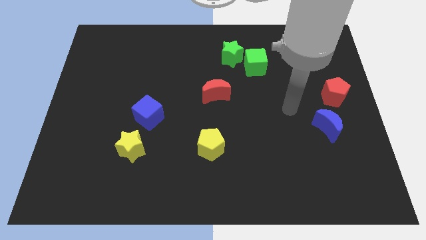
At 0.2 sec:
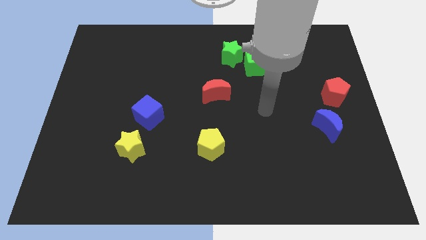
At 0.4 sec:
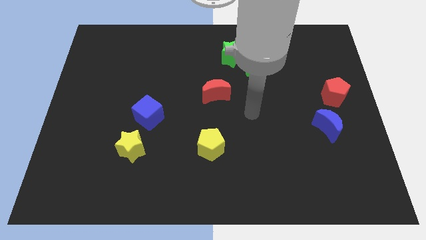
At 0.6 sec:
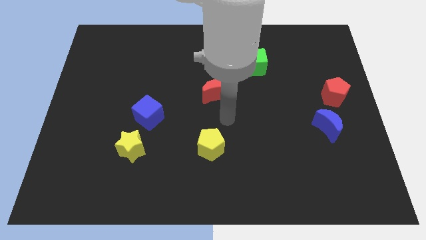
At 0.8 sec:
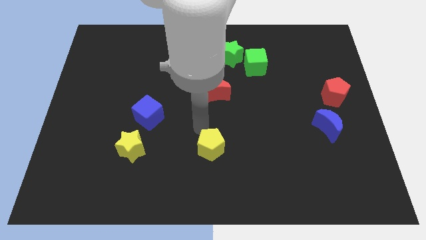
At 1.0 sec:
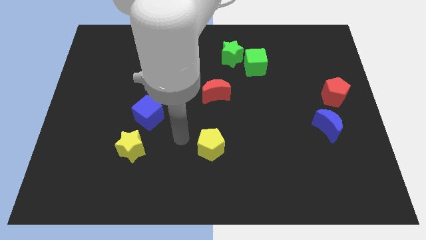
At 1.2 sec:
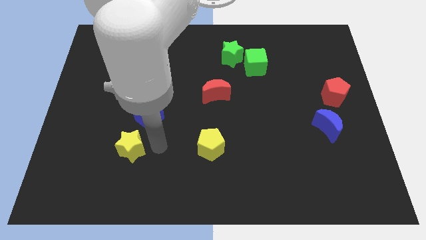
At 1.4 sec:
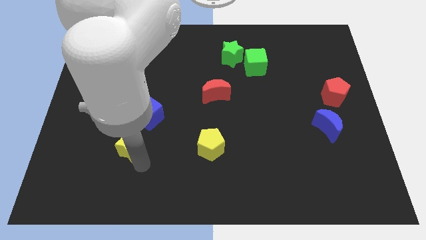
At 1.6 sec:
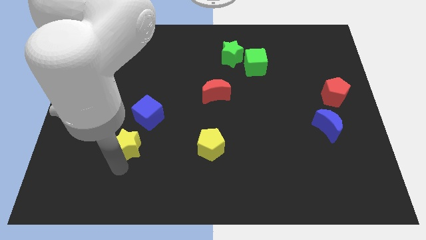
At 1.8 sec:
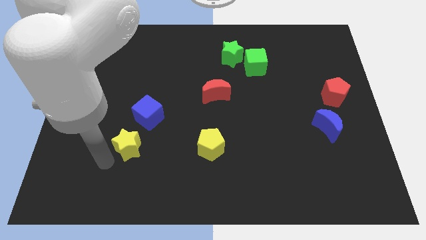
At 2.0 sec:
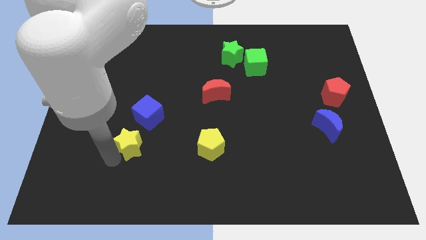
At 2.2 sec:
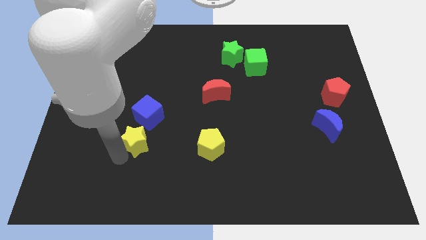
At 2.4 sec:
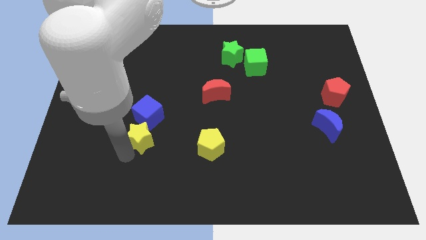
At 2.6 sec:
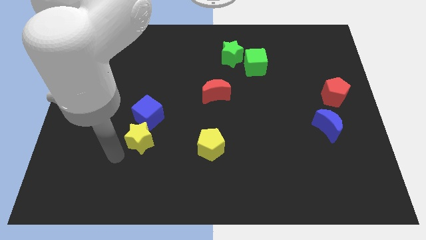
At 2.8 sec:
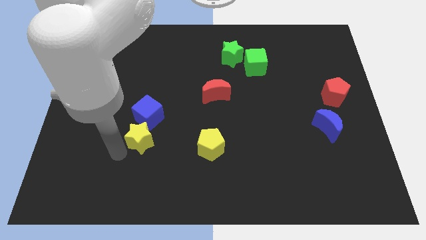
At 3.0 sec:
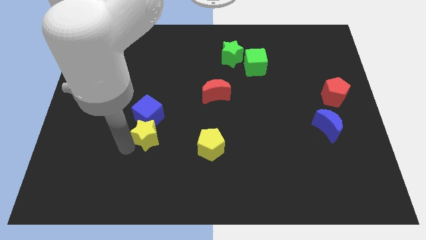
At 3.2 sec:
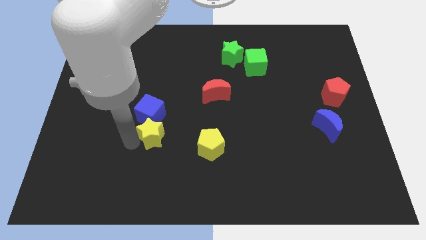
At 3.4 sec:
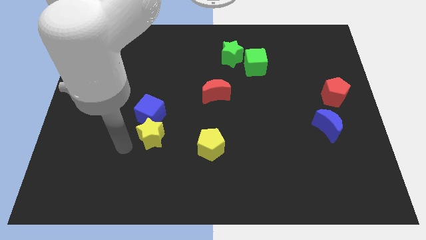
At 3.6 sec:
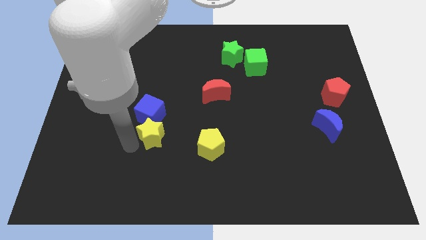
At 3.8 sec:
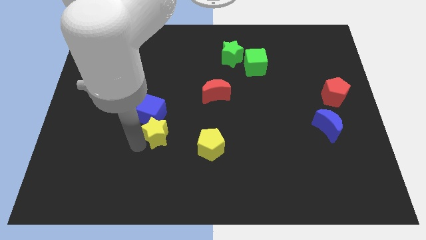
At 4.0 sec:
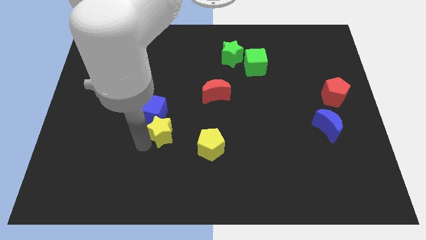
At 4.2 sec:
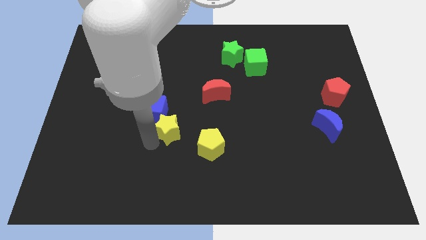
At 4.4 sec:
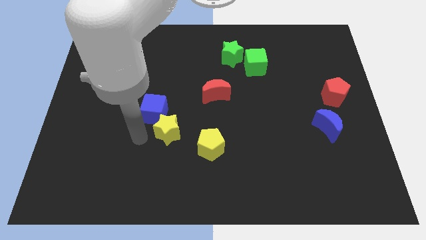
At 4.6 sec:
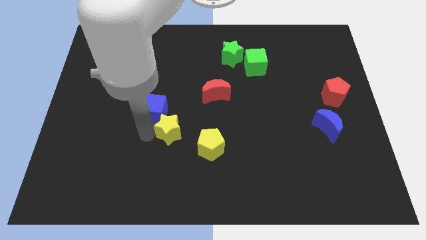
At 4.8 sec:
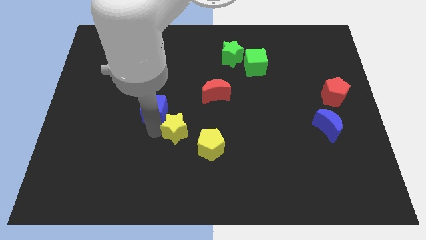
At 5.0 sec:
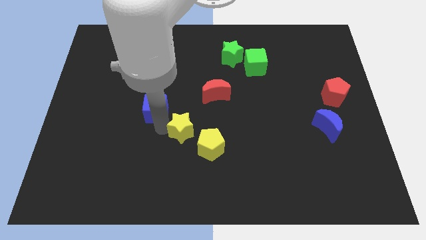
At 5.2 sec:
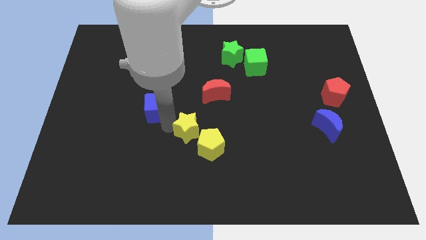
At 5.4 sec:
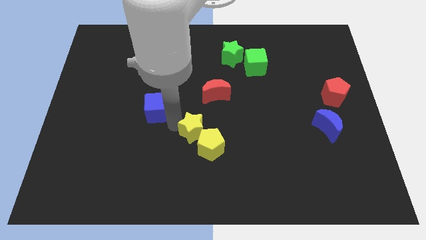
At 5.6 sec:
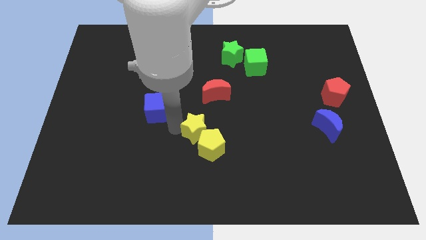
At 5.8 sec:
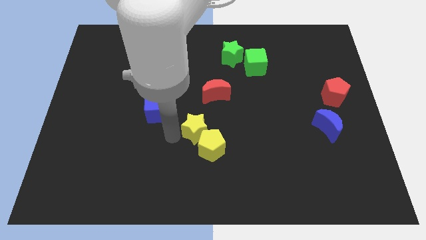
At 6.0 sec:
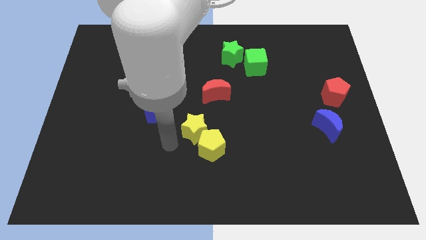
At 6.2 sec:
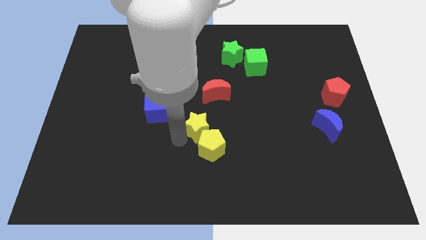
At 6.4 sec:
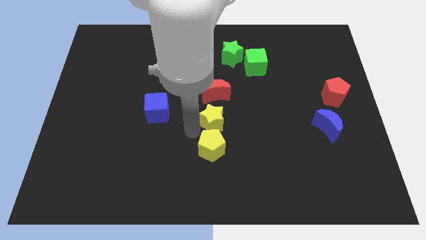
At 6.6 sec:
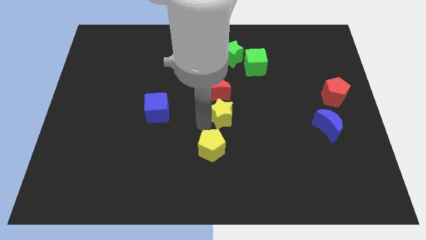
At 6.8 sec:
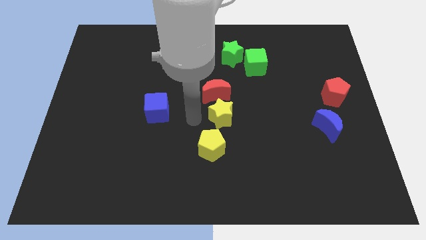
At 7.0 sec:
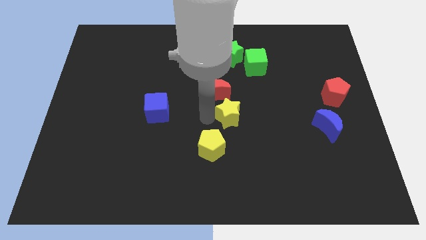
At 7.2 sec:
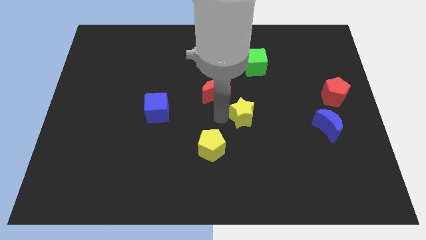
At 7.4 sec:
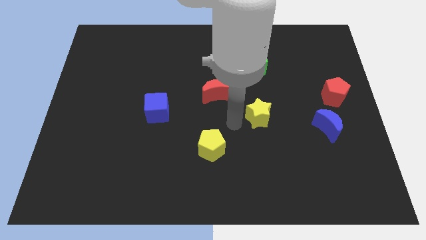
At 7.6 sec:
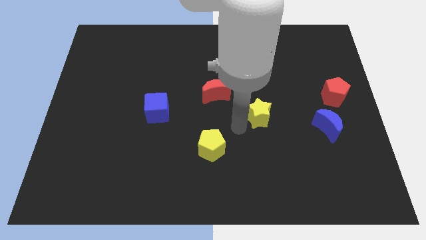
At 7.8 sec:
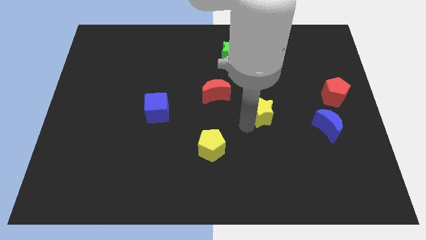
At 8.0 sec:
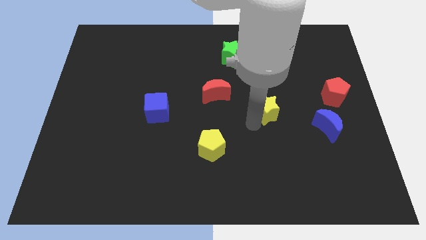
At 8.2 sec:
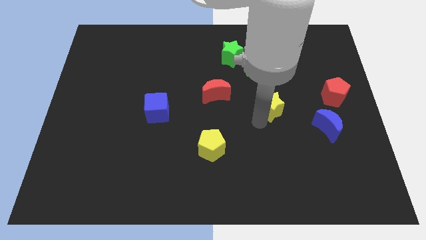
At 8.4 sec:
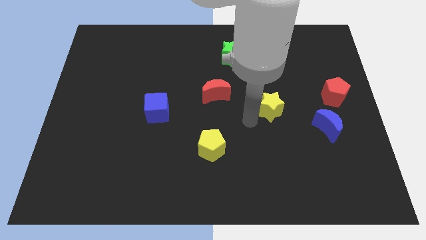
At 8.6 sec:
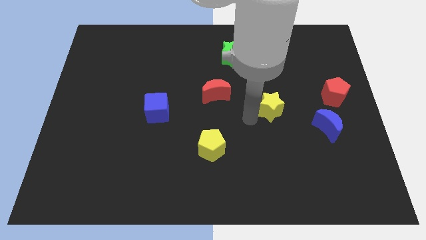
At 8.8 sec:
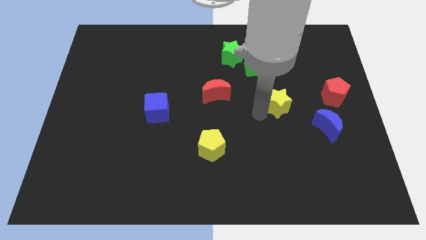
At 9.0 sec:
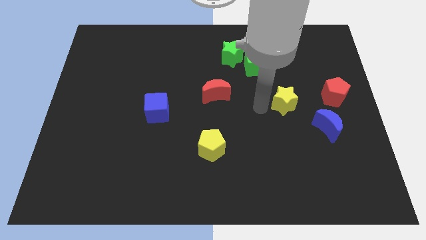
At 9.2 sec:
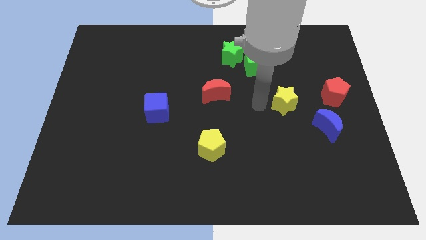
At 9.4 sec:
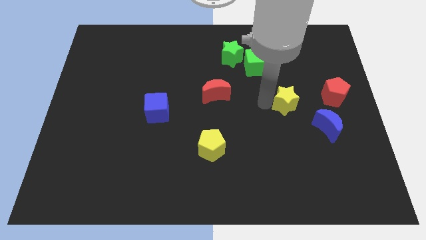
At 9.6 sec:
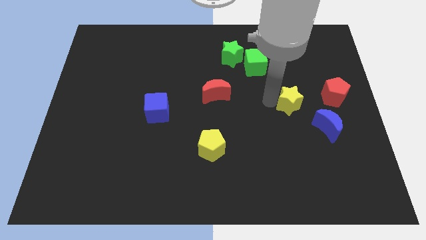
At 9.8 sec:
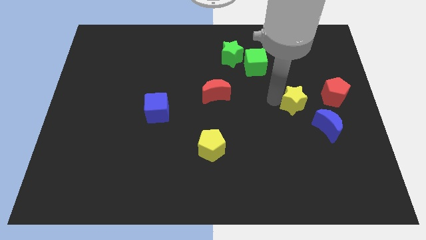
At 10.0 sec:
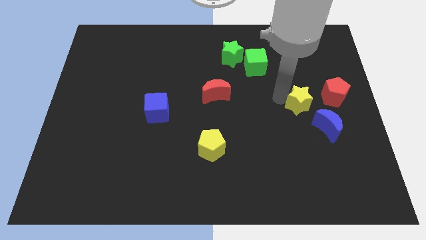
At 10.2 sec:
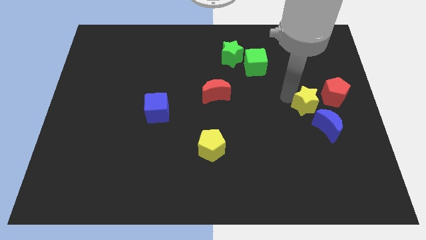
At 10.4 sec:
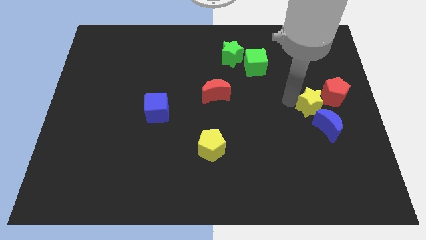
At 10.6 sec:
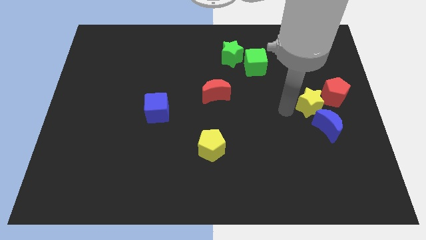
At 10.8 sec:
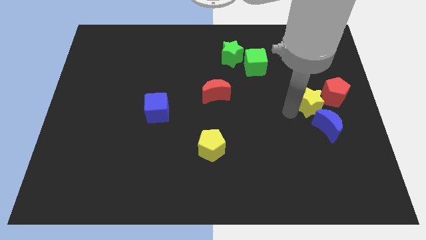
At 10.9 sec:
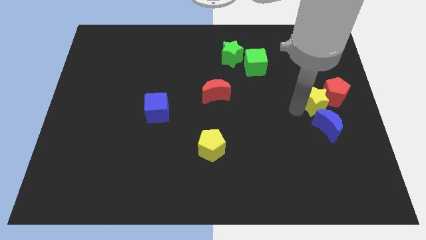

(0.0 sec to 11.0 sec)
push the yellow star towards the red pentagon

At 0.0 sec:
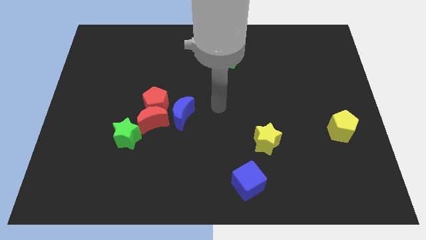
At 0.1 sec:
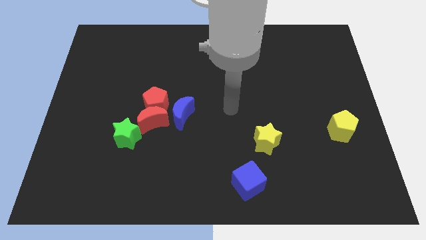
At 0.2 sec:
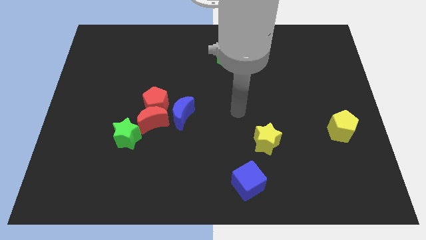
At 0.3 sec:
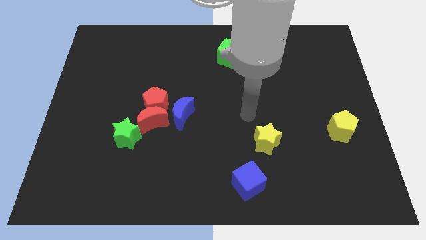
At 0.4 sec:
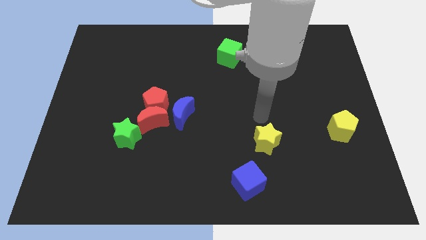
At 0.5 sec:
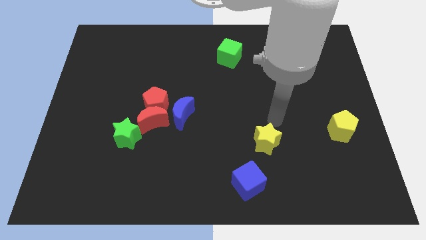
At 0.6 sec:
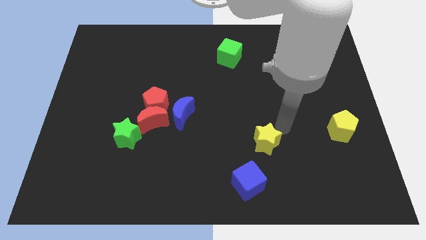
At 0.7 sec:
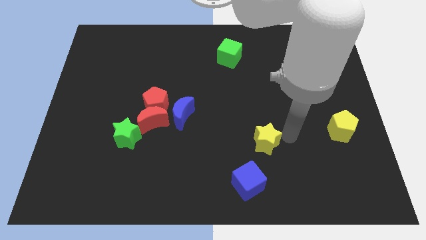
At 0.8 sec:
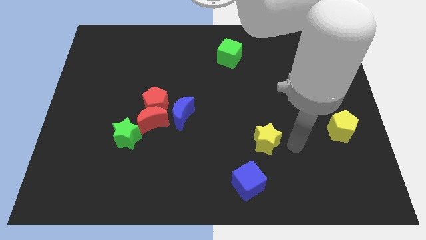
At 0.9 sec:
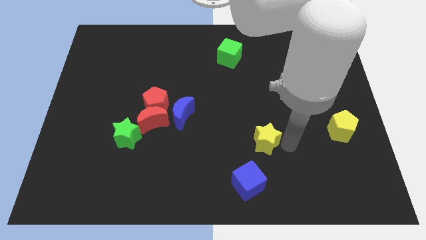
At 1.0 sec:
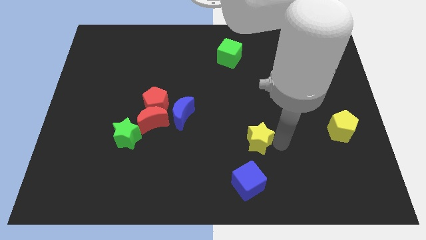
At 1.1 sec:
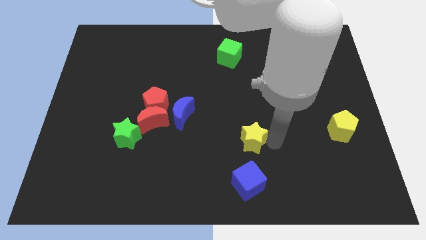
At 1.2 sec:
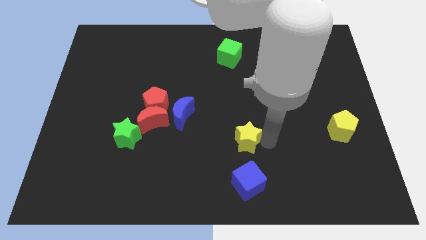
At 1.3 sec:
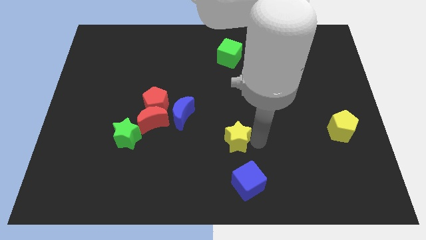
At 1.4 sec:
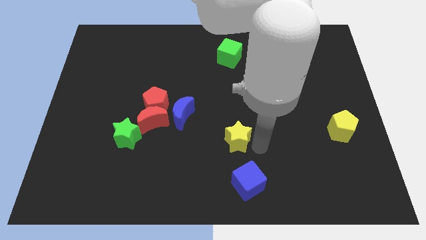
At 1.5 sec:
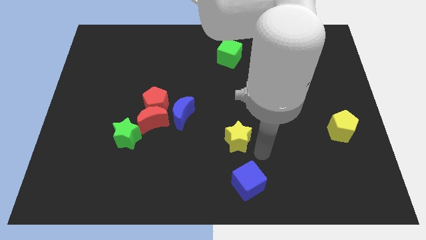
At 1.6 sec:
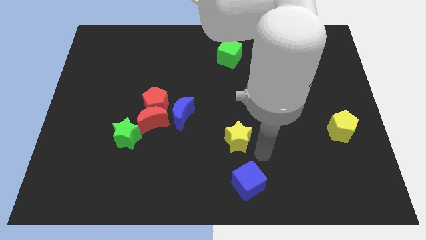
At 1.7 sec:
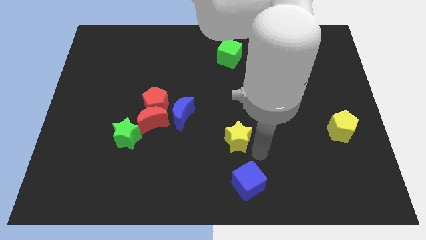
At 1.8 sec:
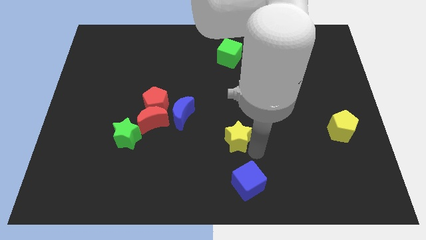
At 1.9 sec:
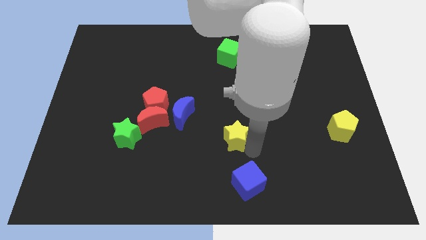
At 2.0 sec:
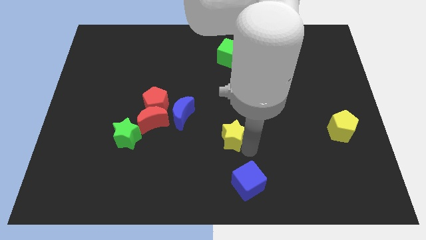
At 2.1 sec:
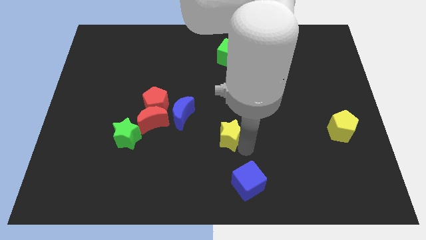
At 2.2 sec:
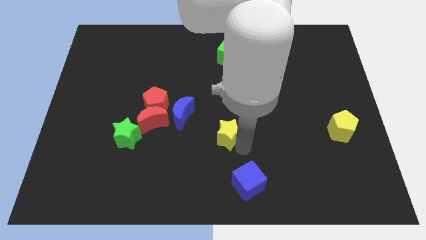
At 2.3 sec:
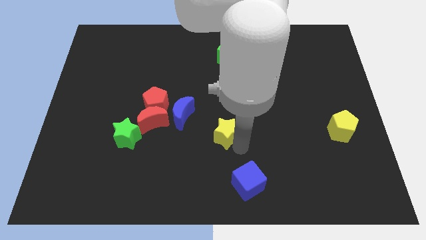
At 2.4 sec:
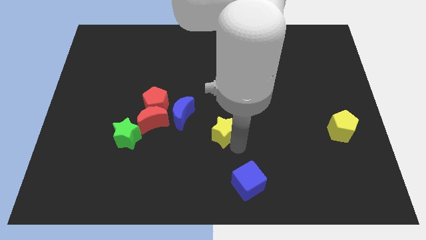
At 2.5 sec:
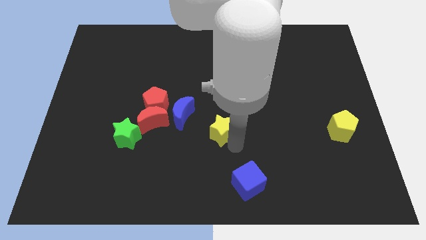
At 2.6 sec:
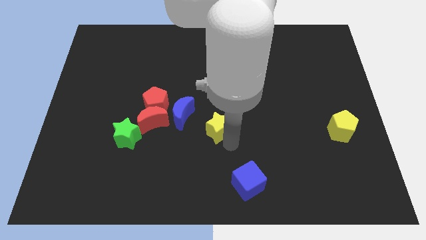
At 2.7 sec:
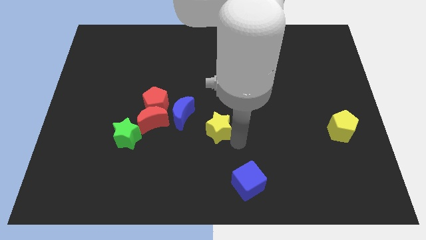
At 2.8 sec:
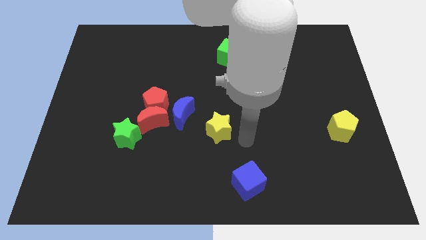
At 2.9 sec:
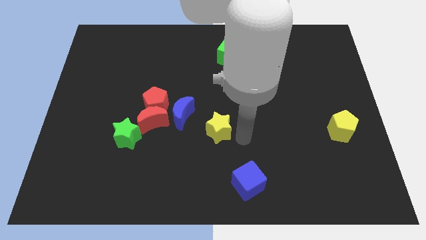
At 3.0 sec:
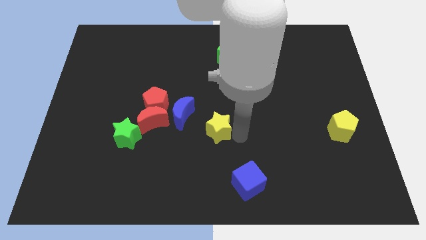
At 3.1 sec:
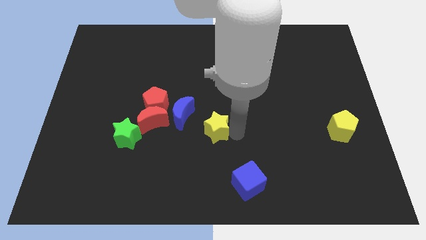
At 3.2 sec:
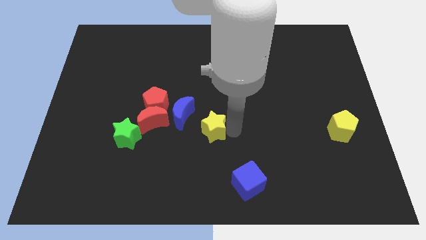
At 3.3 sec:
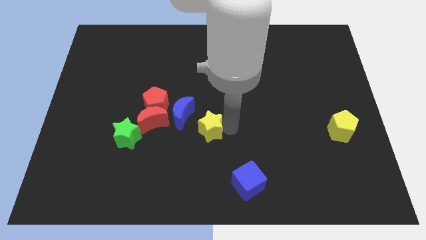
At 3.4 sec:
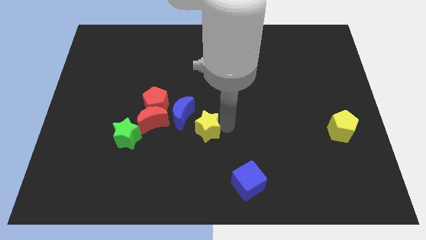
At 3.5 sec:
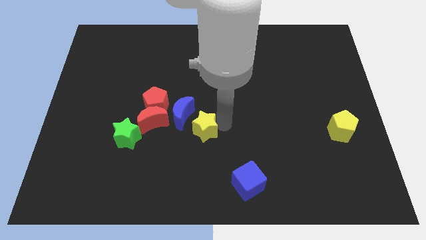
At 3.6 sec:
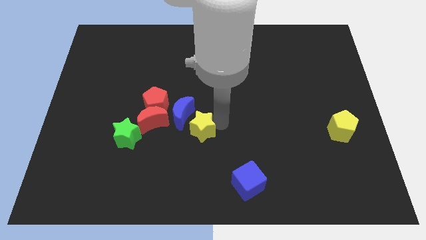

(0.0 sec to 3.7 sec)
slide the yellow star to the blue moon
